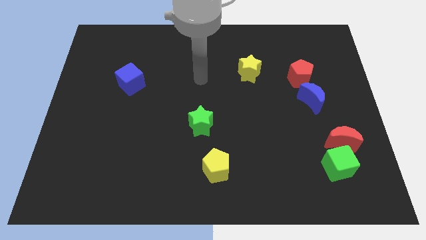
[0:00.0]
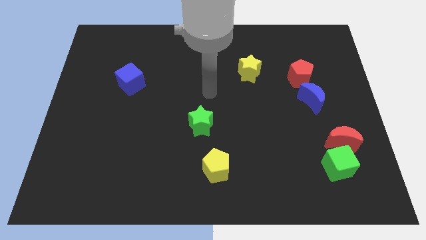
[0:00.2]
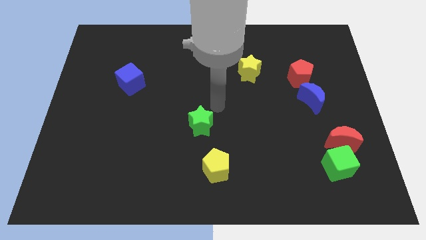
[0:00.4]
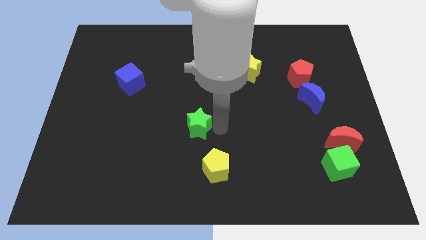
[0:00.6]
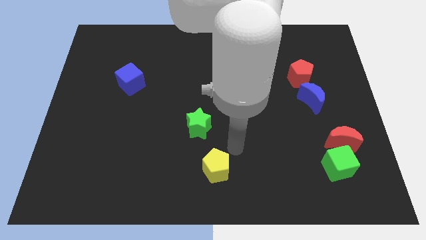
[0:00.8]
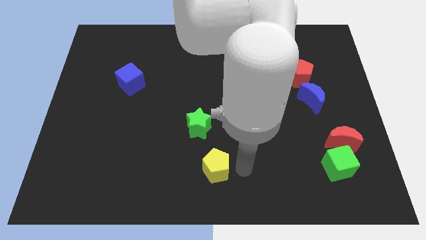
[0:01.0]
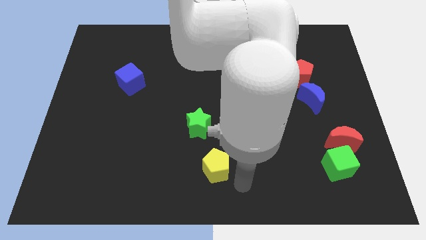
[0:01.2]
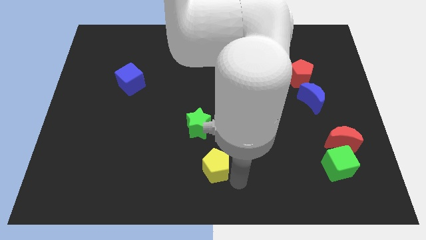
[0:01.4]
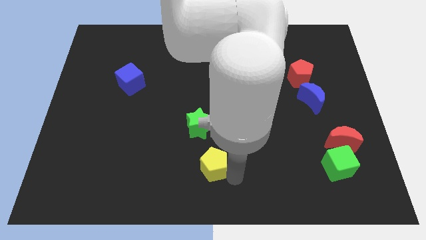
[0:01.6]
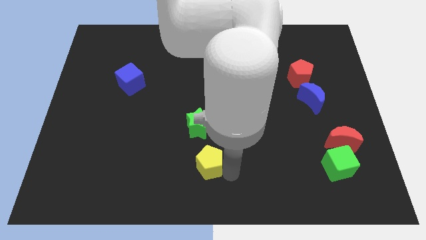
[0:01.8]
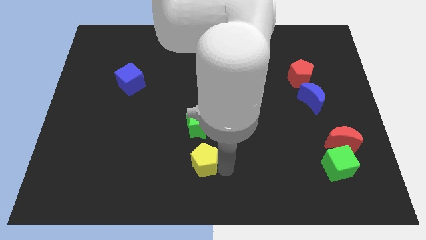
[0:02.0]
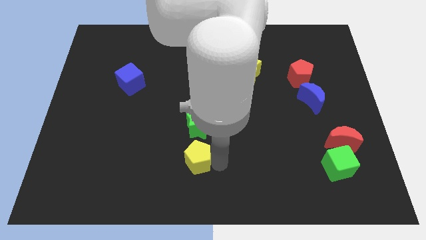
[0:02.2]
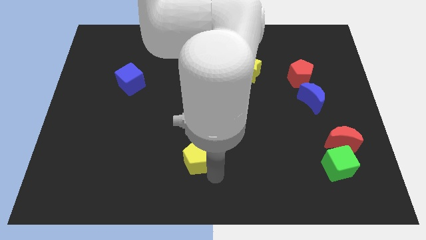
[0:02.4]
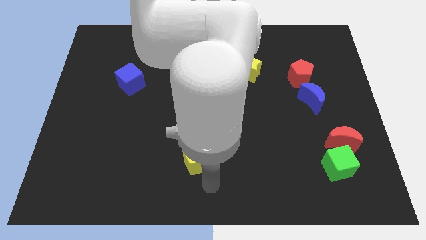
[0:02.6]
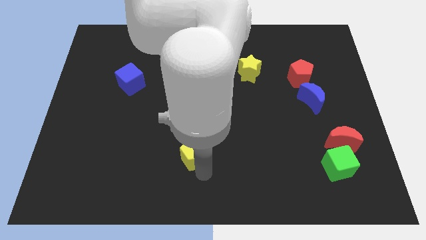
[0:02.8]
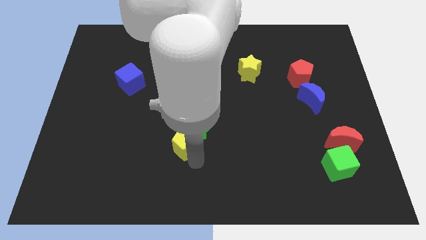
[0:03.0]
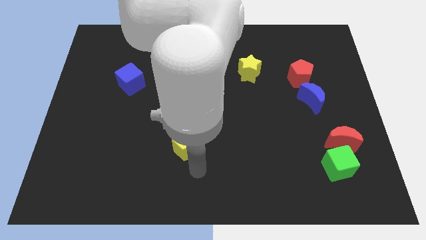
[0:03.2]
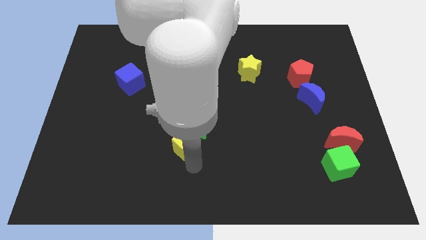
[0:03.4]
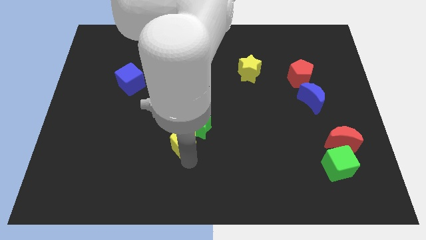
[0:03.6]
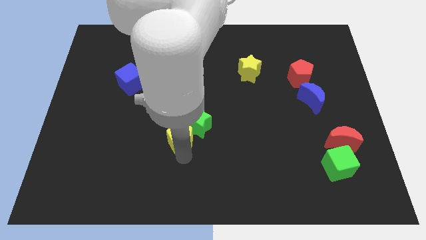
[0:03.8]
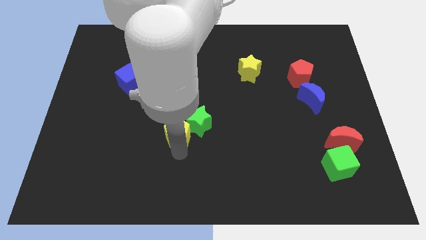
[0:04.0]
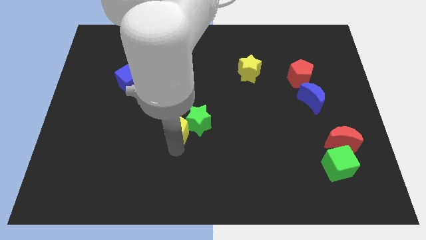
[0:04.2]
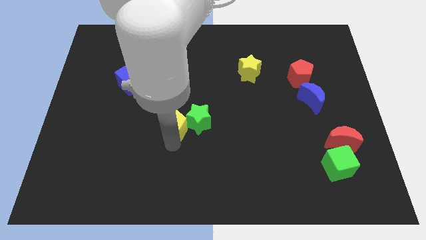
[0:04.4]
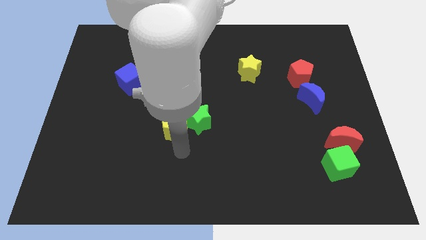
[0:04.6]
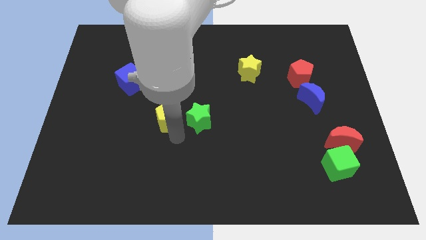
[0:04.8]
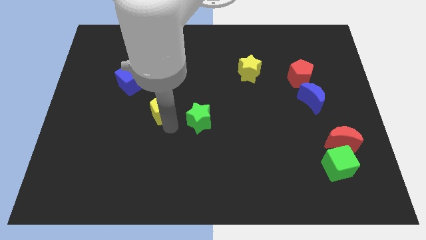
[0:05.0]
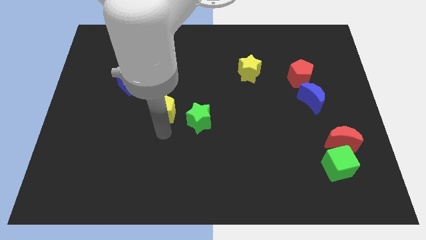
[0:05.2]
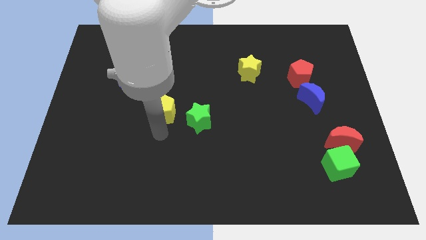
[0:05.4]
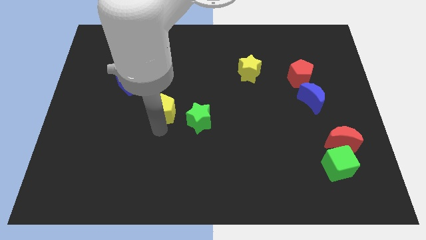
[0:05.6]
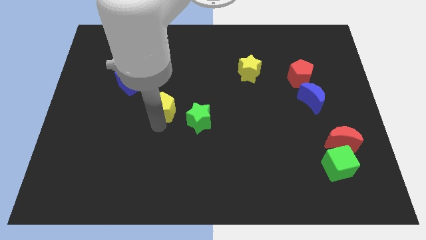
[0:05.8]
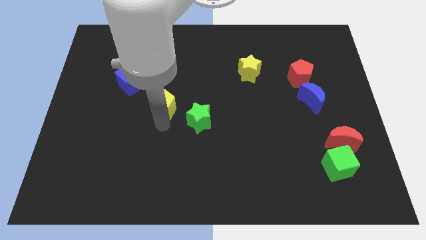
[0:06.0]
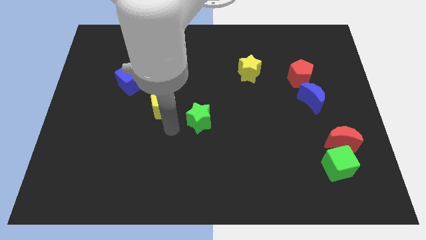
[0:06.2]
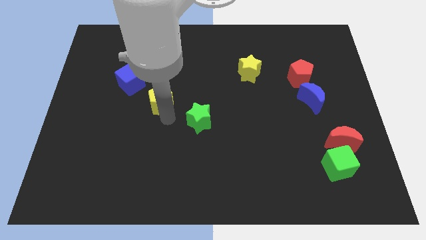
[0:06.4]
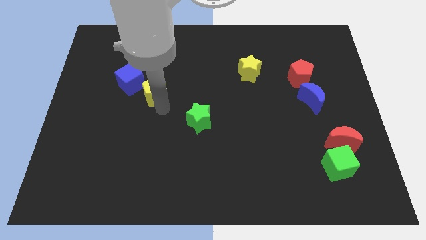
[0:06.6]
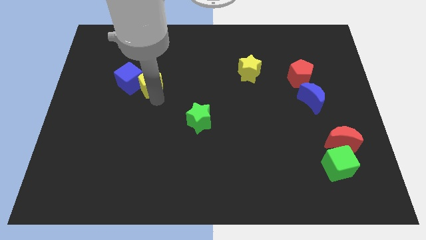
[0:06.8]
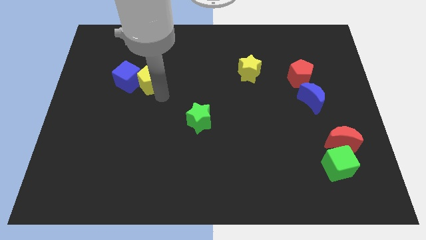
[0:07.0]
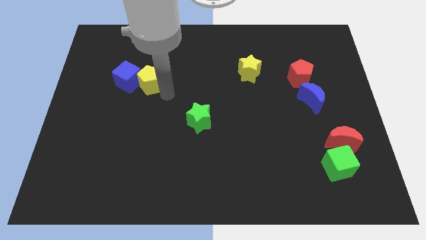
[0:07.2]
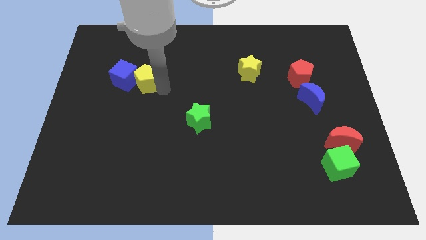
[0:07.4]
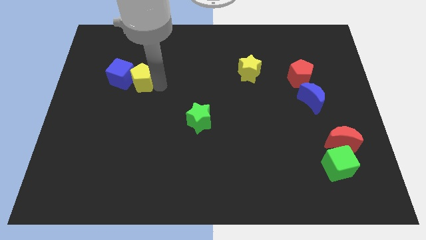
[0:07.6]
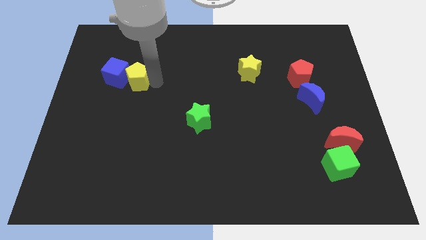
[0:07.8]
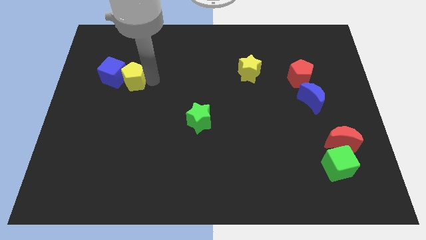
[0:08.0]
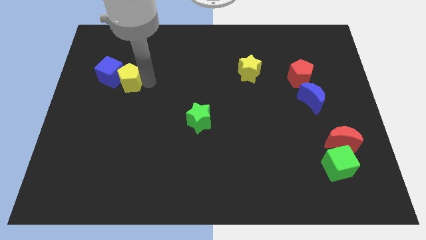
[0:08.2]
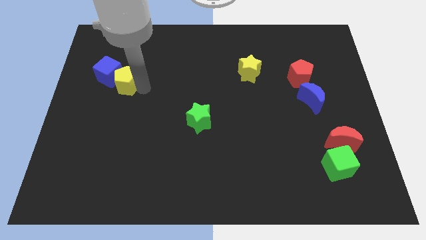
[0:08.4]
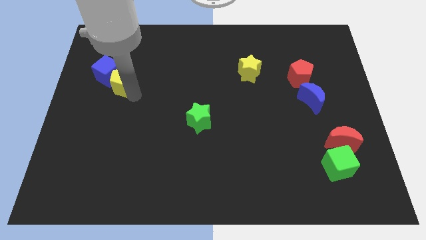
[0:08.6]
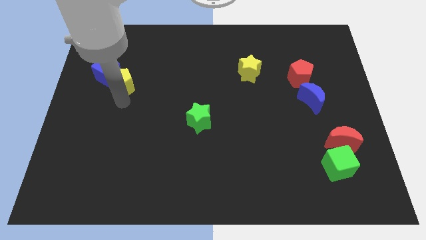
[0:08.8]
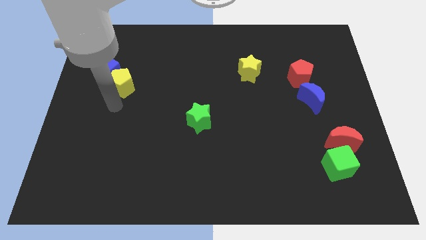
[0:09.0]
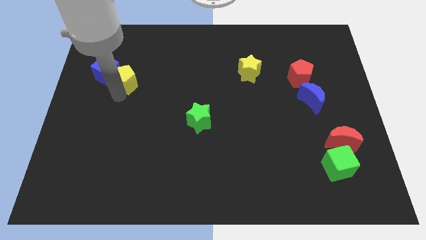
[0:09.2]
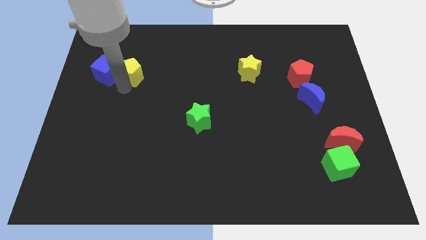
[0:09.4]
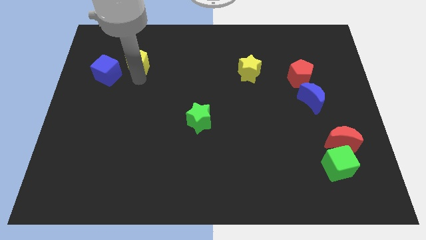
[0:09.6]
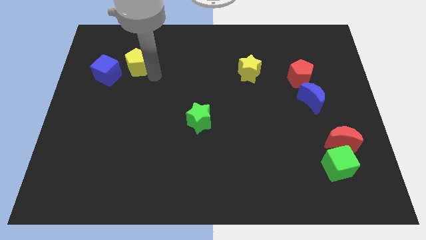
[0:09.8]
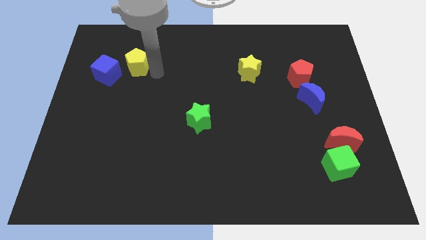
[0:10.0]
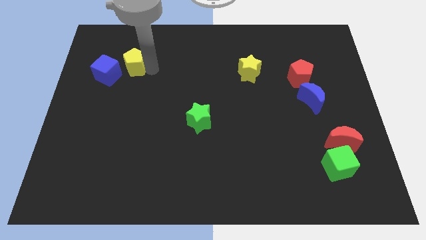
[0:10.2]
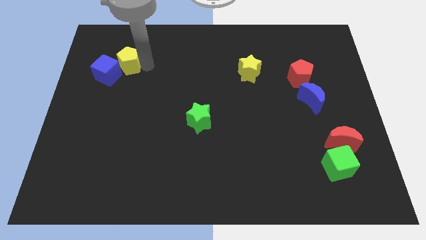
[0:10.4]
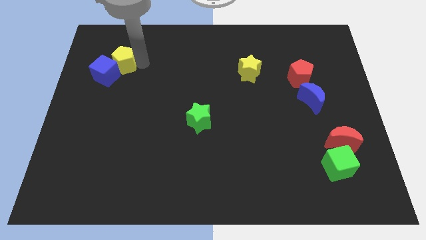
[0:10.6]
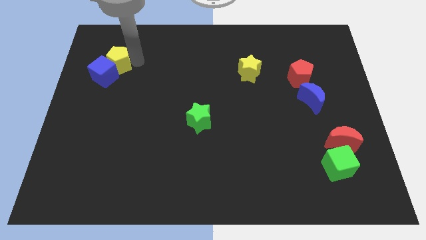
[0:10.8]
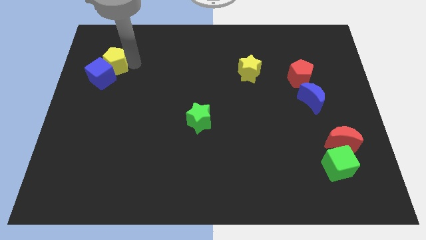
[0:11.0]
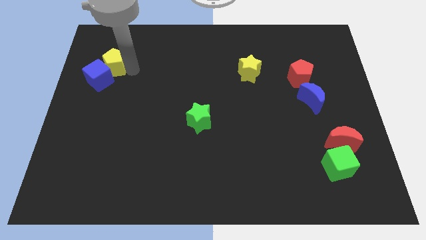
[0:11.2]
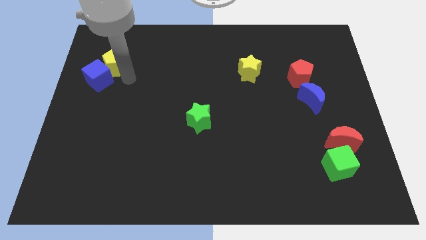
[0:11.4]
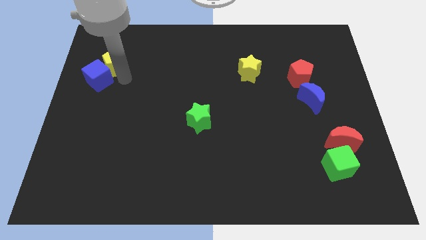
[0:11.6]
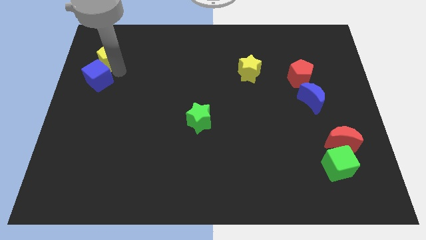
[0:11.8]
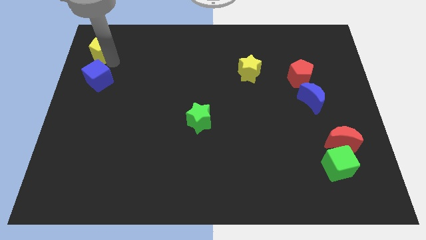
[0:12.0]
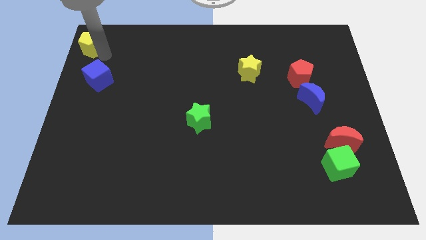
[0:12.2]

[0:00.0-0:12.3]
slide the yellow pentagon to the top left
